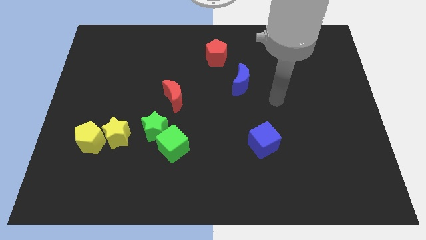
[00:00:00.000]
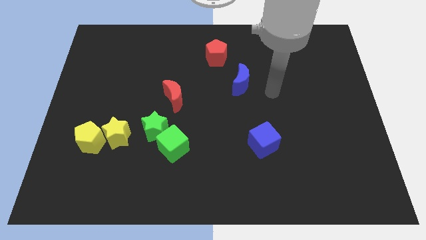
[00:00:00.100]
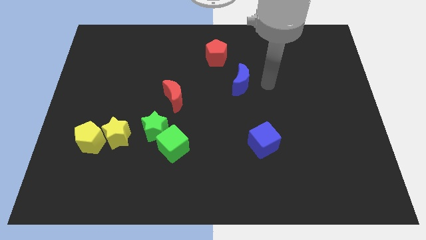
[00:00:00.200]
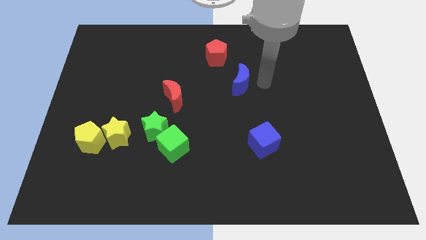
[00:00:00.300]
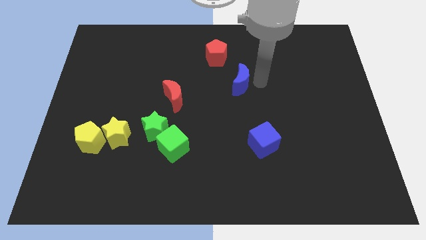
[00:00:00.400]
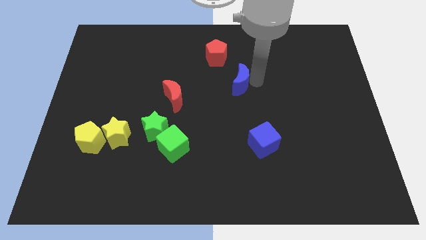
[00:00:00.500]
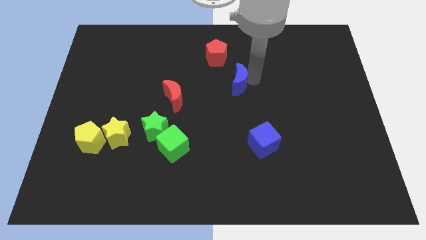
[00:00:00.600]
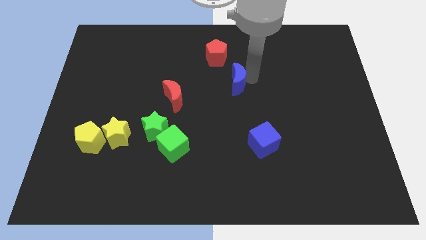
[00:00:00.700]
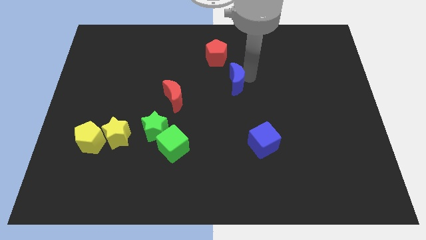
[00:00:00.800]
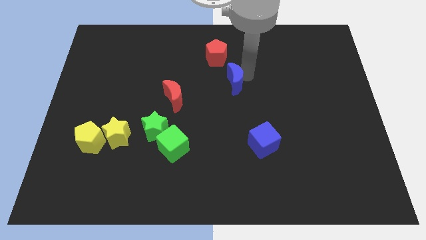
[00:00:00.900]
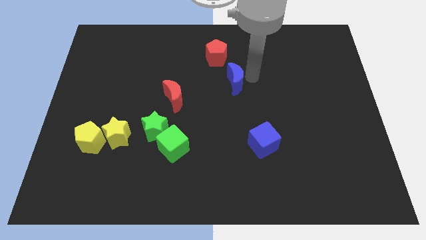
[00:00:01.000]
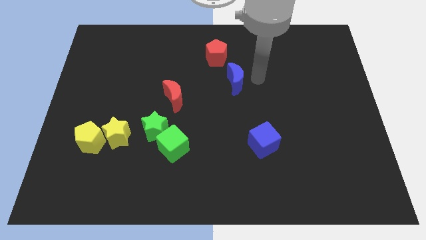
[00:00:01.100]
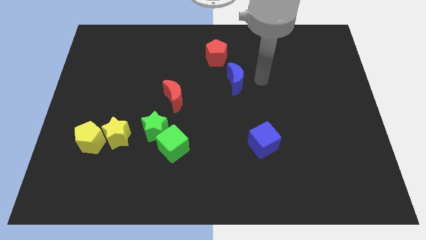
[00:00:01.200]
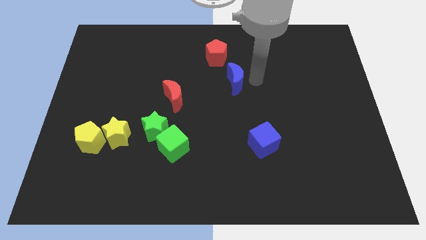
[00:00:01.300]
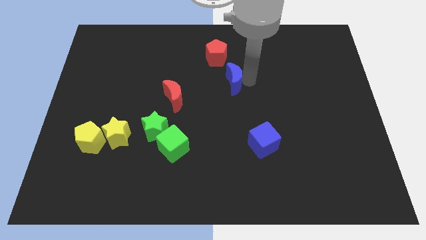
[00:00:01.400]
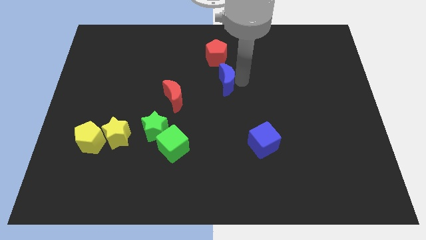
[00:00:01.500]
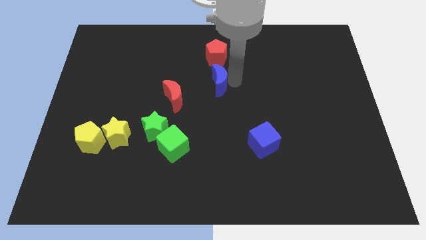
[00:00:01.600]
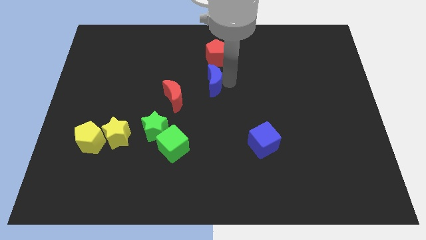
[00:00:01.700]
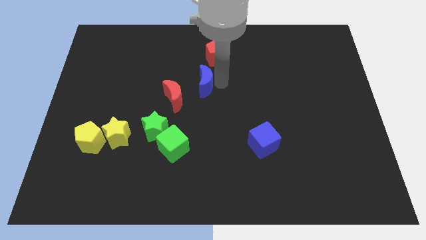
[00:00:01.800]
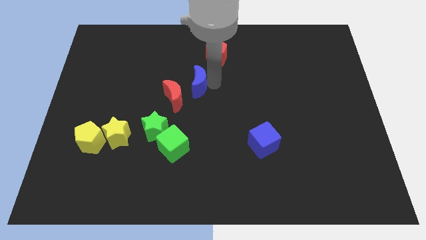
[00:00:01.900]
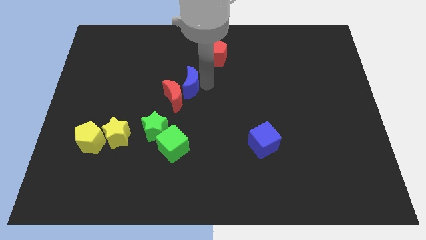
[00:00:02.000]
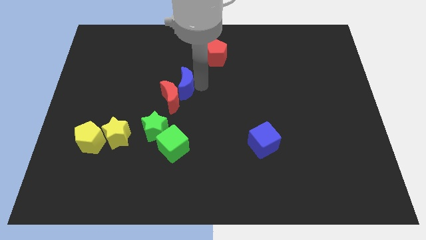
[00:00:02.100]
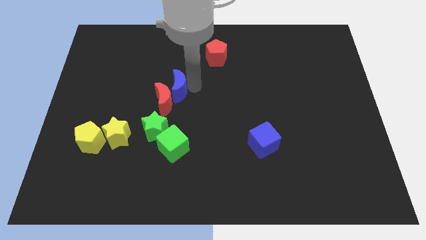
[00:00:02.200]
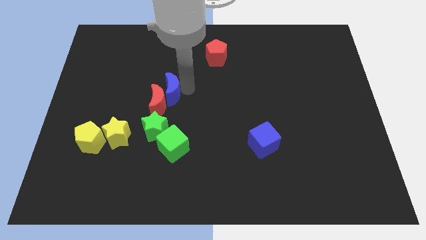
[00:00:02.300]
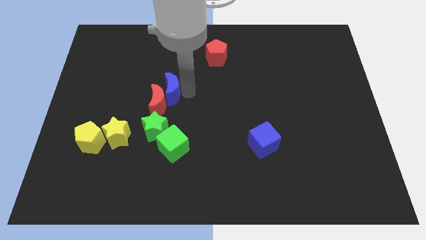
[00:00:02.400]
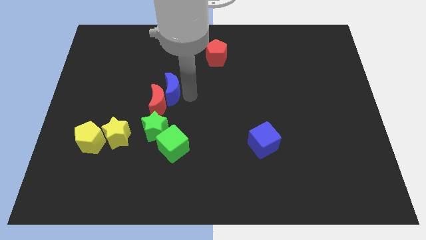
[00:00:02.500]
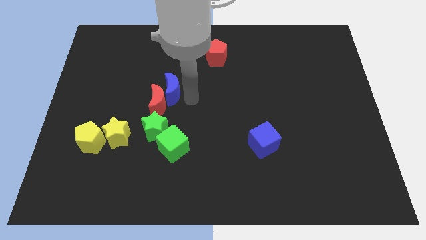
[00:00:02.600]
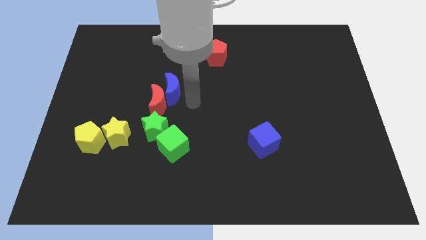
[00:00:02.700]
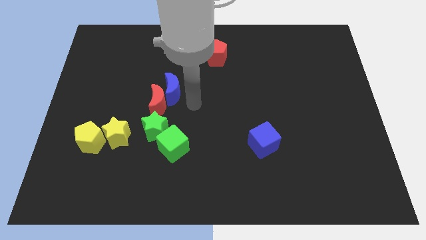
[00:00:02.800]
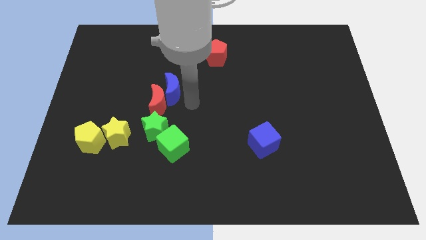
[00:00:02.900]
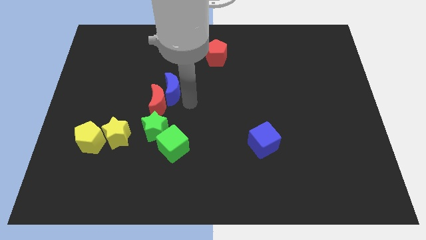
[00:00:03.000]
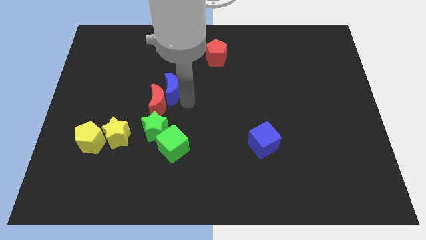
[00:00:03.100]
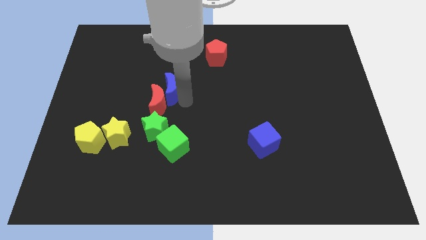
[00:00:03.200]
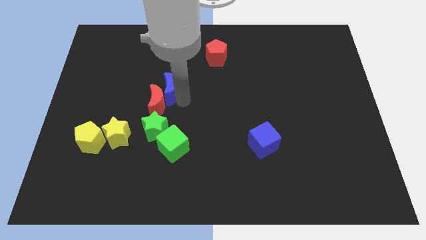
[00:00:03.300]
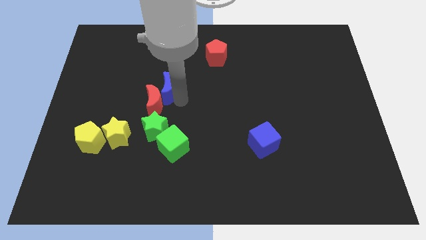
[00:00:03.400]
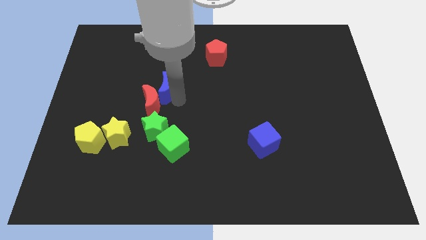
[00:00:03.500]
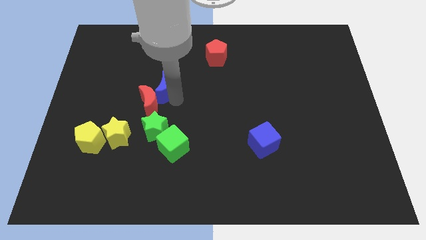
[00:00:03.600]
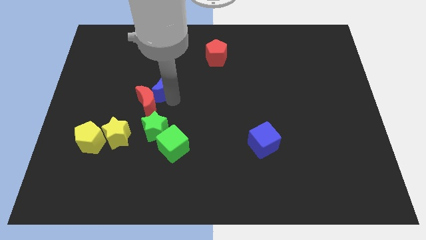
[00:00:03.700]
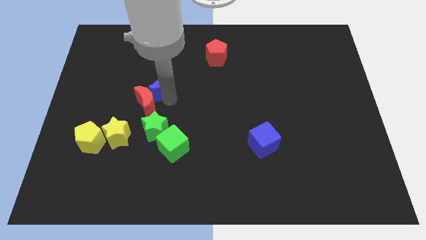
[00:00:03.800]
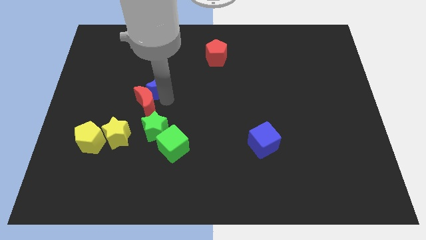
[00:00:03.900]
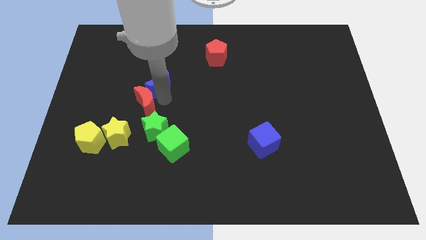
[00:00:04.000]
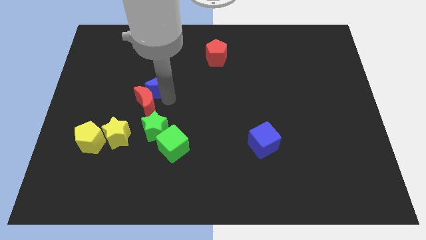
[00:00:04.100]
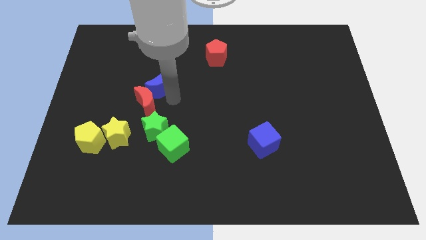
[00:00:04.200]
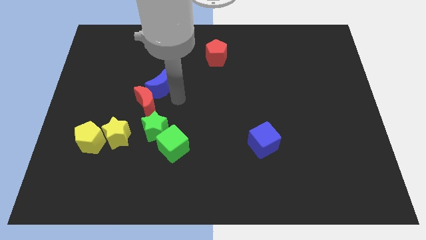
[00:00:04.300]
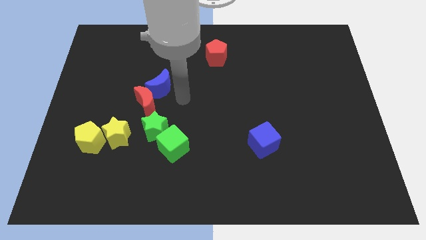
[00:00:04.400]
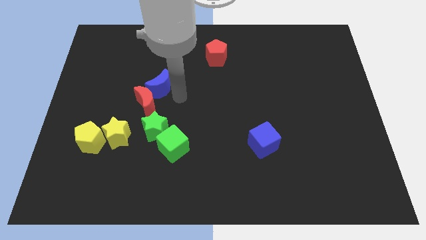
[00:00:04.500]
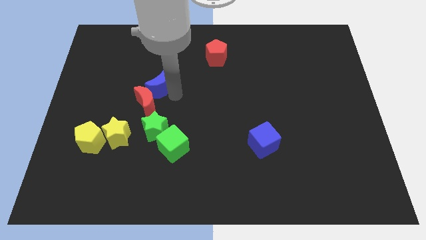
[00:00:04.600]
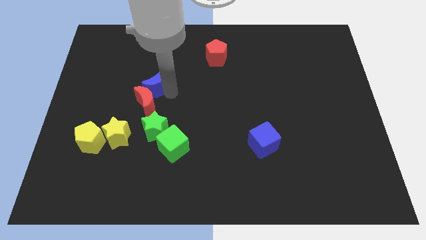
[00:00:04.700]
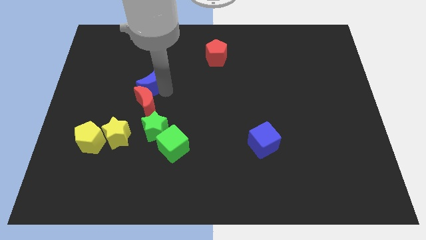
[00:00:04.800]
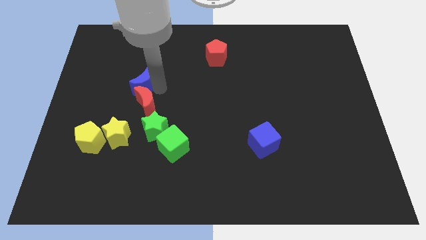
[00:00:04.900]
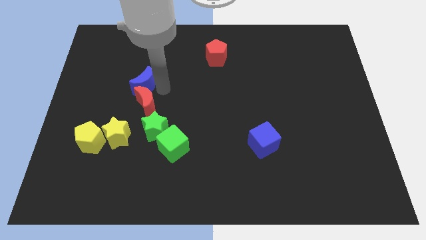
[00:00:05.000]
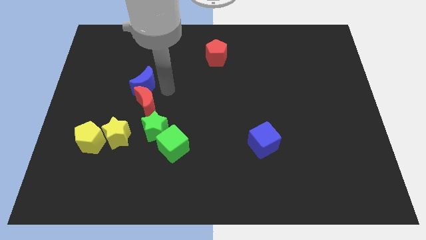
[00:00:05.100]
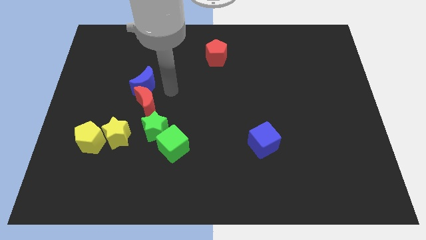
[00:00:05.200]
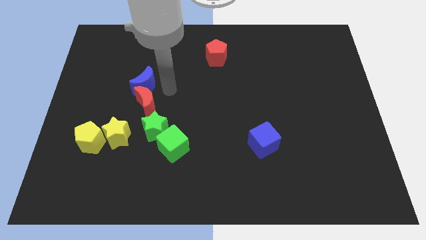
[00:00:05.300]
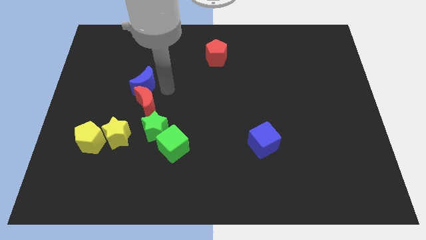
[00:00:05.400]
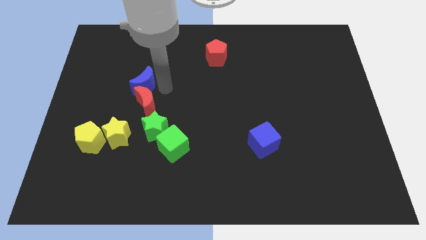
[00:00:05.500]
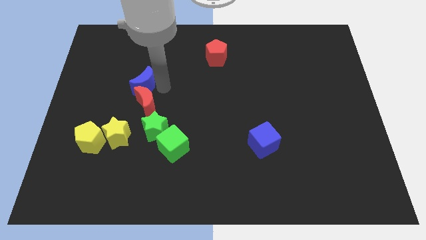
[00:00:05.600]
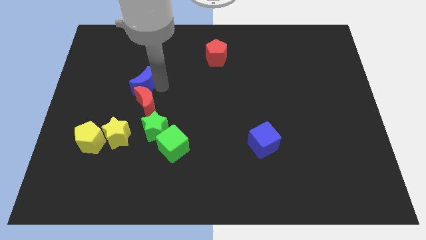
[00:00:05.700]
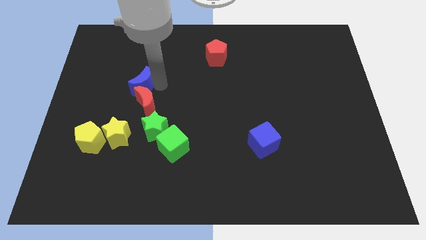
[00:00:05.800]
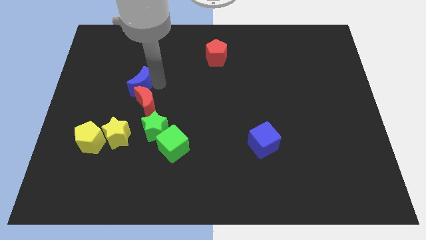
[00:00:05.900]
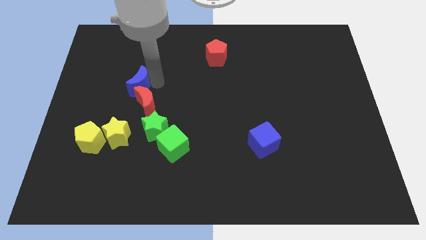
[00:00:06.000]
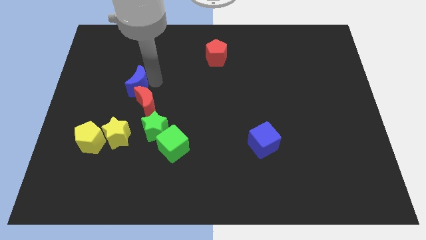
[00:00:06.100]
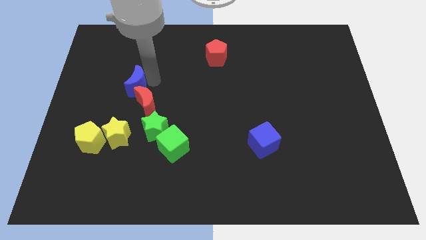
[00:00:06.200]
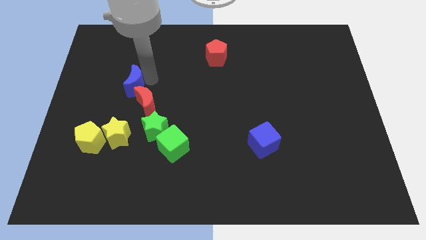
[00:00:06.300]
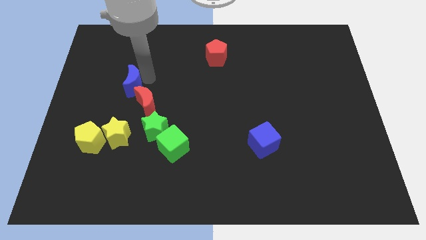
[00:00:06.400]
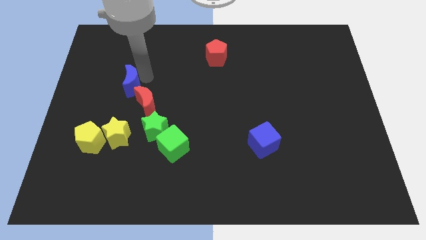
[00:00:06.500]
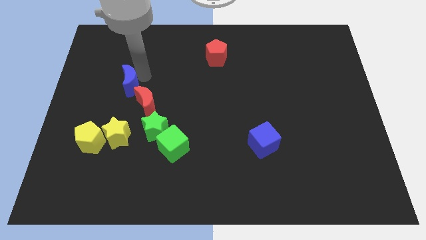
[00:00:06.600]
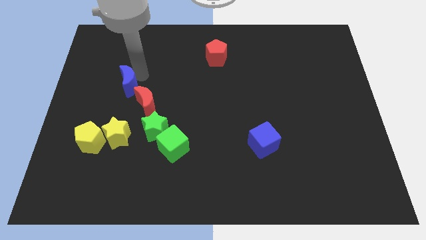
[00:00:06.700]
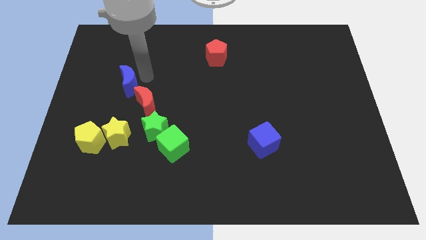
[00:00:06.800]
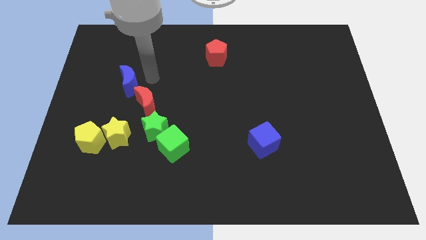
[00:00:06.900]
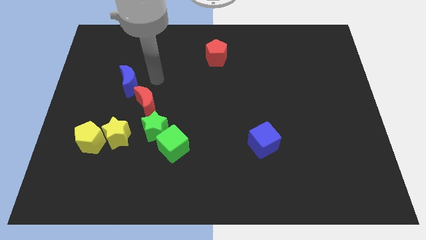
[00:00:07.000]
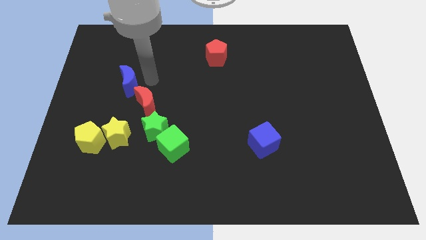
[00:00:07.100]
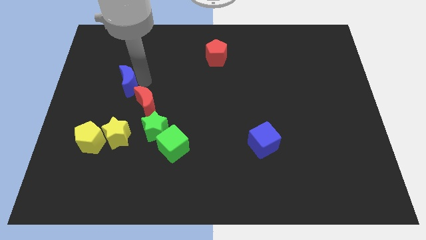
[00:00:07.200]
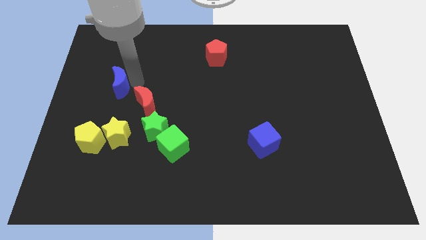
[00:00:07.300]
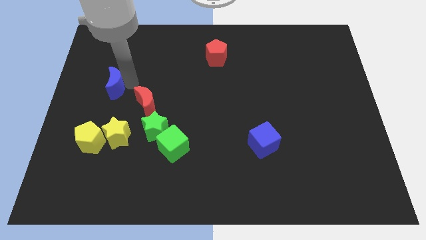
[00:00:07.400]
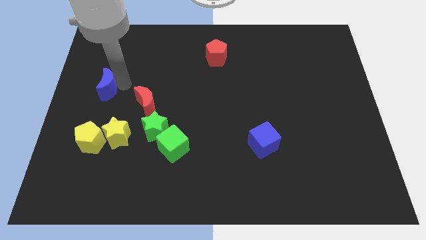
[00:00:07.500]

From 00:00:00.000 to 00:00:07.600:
slide the blue moon to the left side
